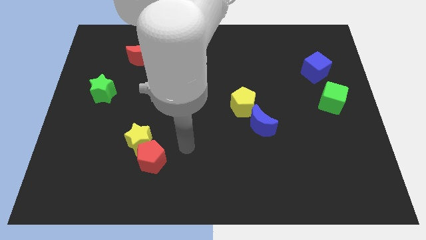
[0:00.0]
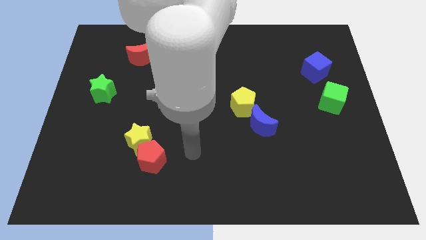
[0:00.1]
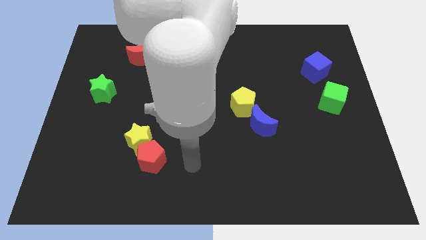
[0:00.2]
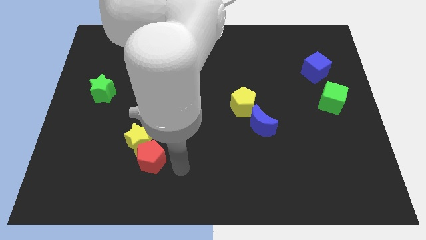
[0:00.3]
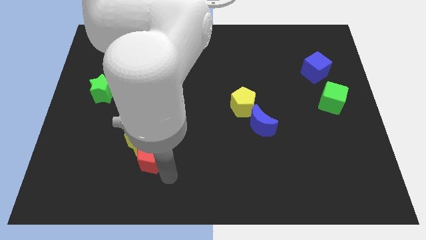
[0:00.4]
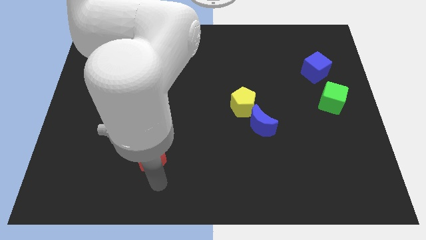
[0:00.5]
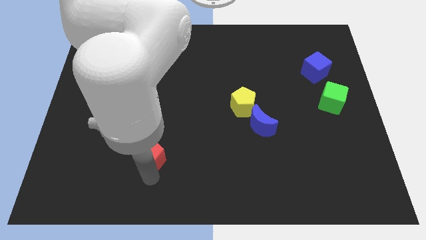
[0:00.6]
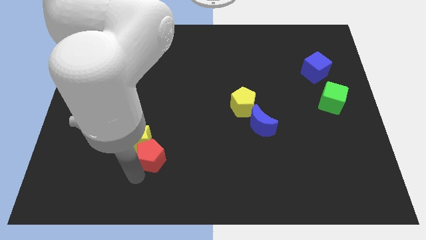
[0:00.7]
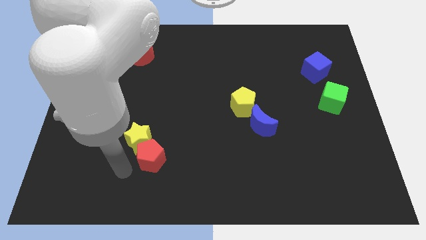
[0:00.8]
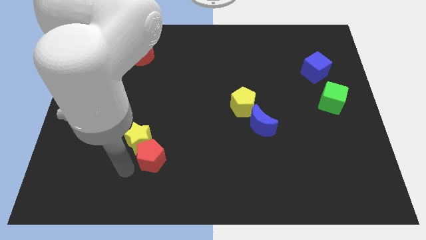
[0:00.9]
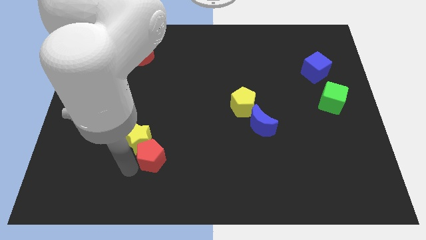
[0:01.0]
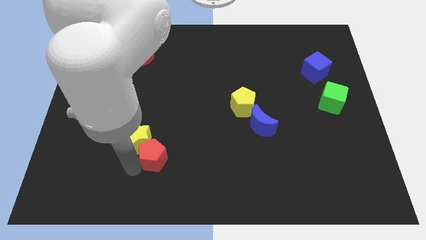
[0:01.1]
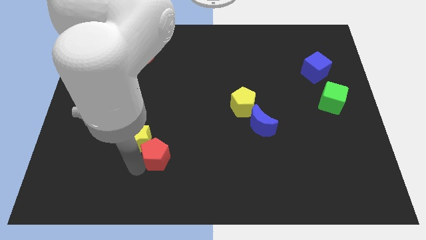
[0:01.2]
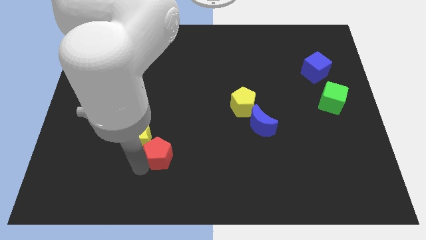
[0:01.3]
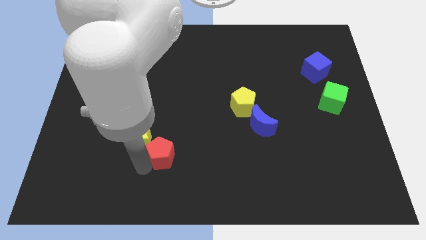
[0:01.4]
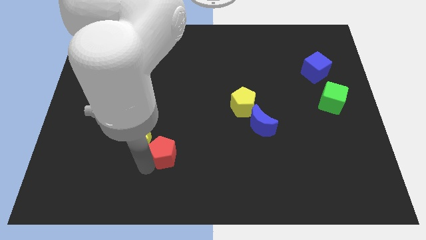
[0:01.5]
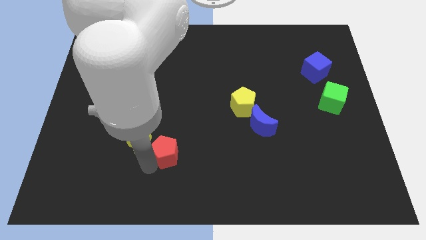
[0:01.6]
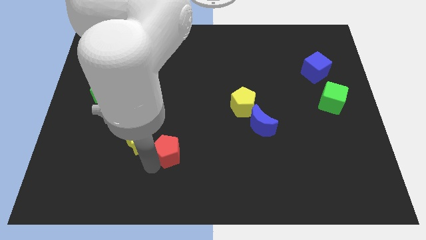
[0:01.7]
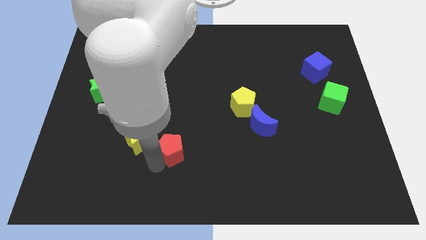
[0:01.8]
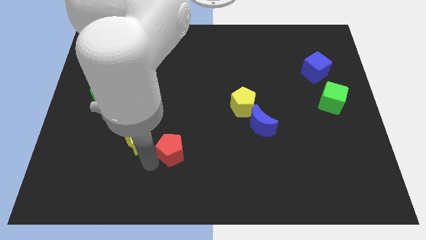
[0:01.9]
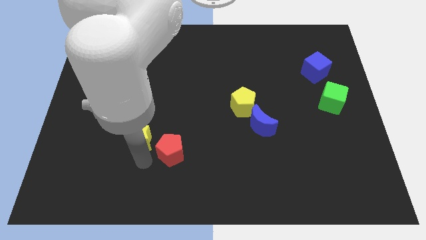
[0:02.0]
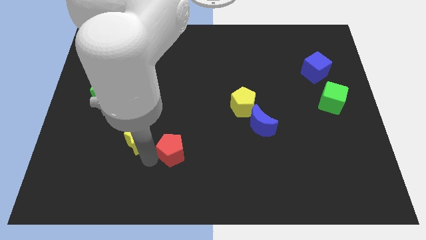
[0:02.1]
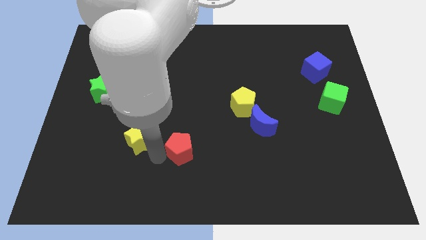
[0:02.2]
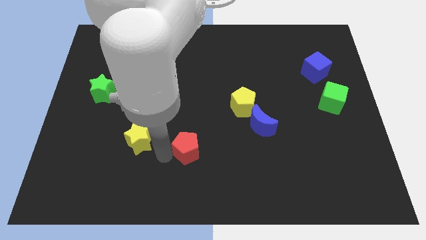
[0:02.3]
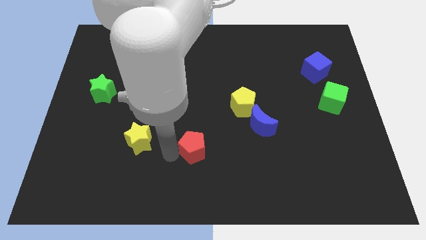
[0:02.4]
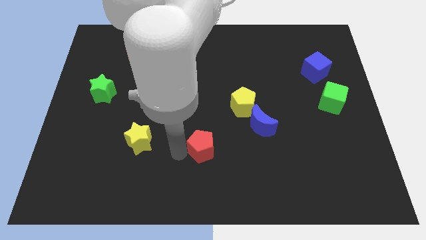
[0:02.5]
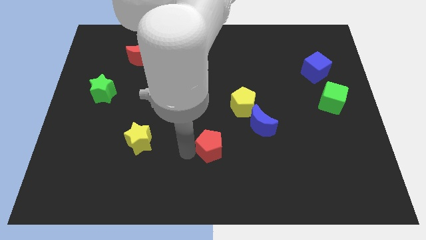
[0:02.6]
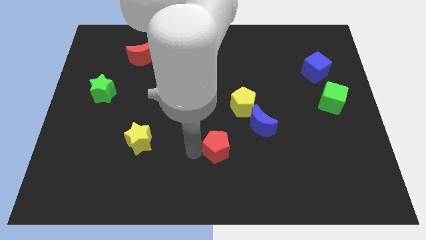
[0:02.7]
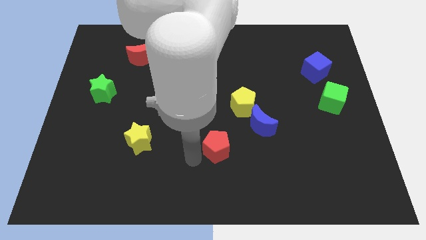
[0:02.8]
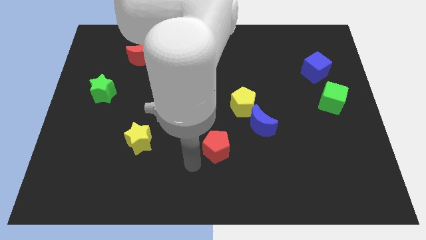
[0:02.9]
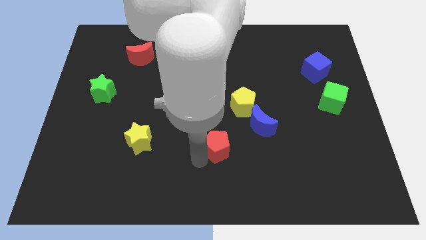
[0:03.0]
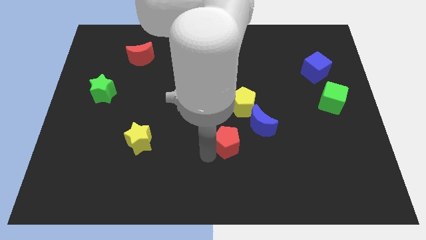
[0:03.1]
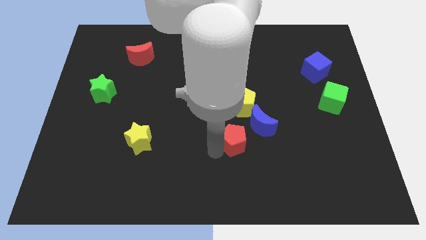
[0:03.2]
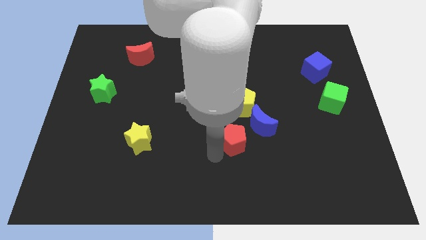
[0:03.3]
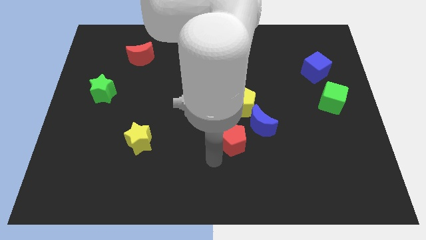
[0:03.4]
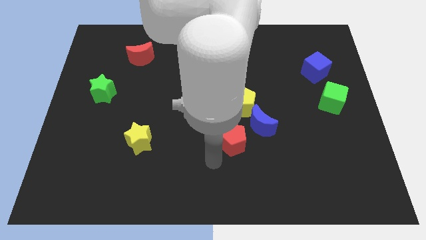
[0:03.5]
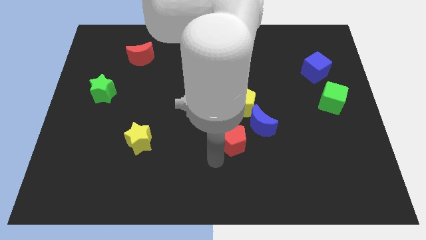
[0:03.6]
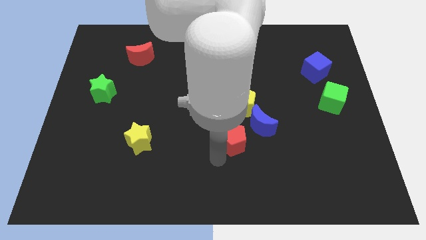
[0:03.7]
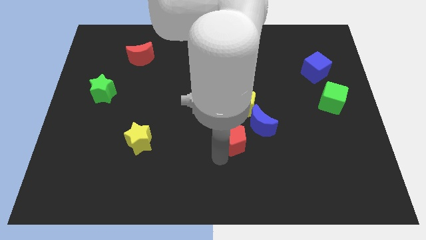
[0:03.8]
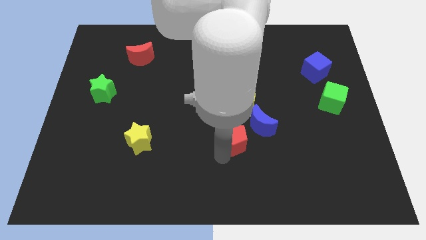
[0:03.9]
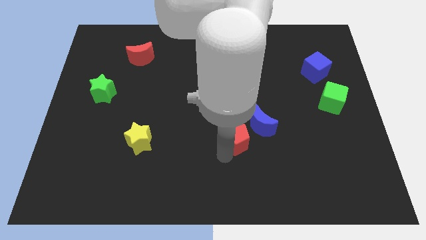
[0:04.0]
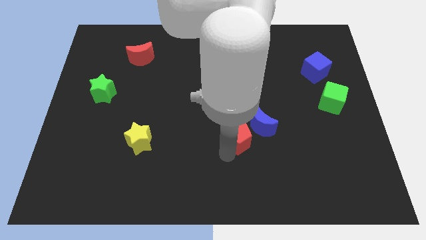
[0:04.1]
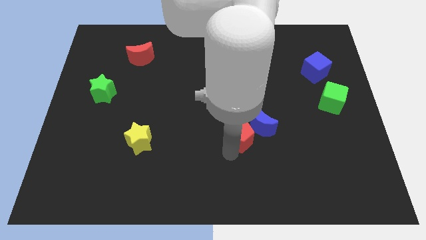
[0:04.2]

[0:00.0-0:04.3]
push the red pentagon to the blue moon

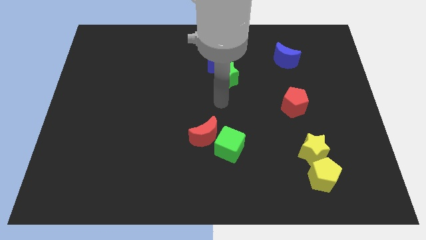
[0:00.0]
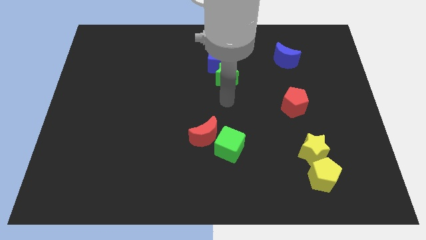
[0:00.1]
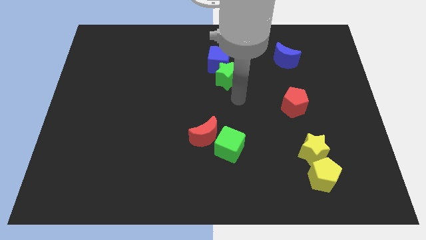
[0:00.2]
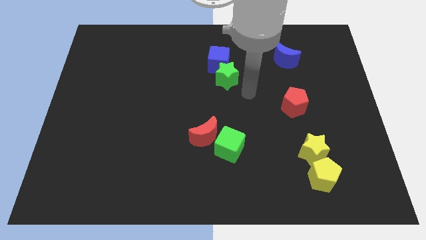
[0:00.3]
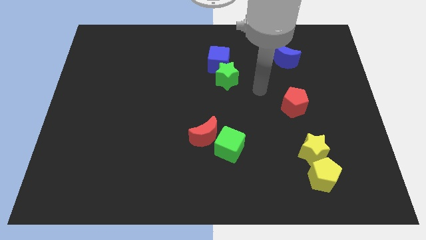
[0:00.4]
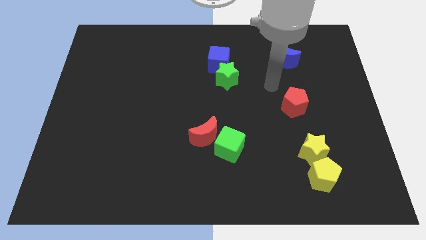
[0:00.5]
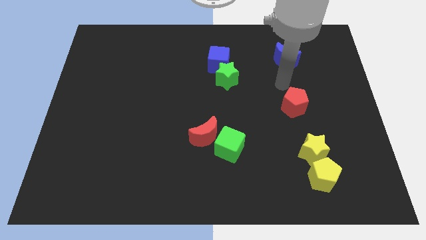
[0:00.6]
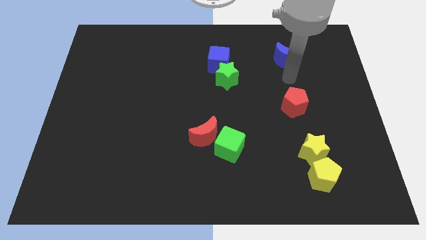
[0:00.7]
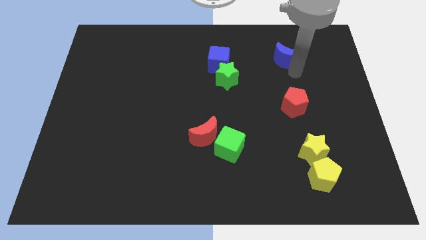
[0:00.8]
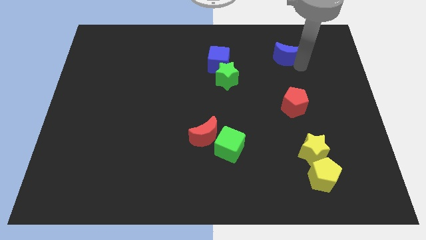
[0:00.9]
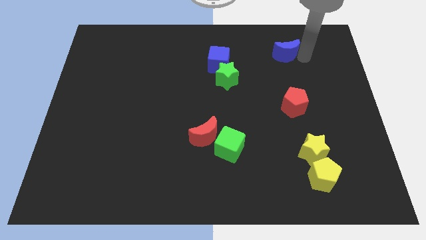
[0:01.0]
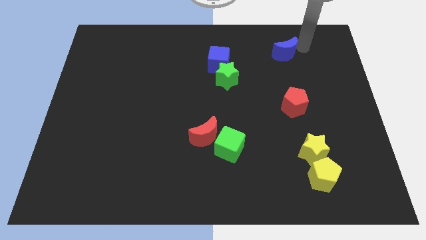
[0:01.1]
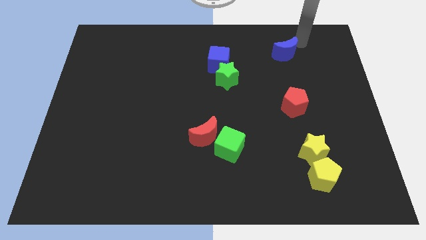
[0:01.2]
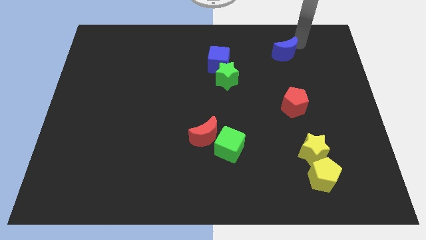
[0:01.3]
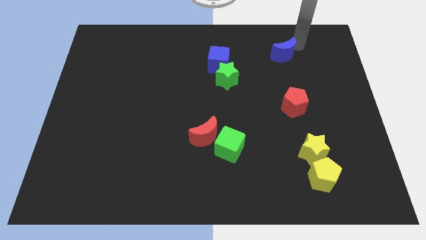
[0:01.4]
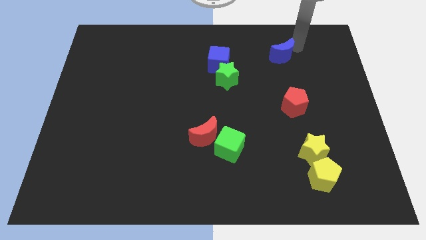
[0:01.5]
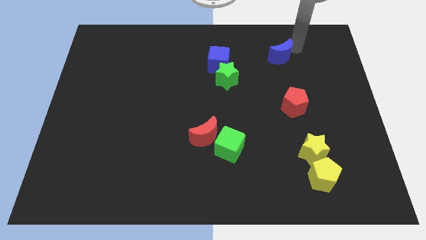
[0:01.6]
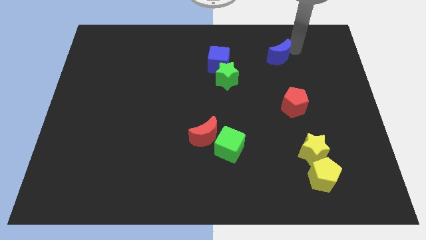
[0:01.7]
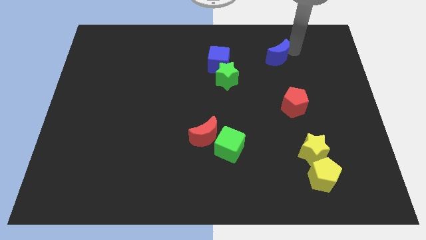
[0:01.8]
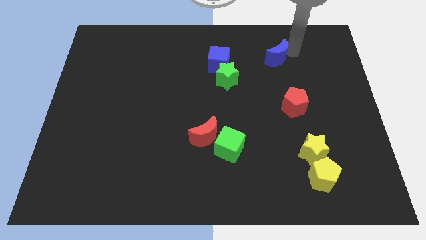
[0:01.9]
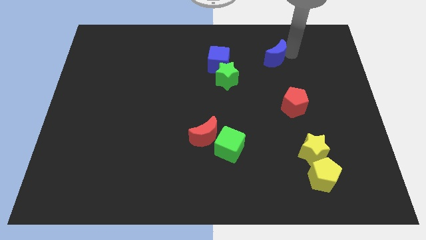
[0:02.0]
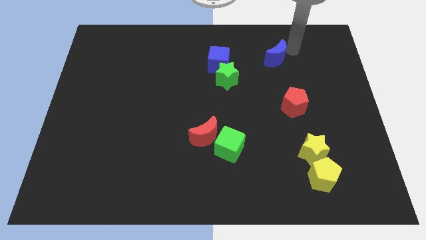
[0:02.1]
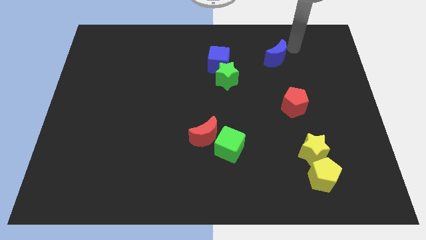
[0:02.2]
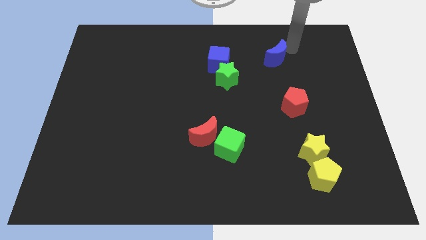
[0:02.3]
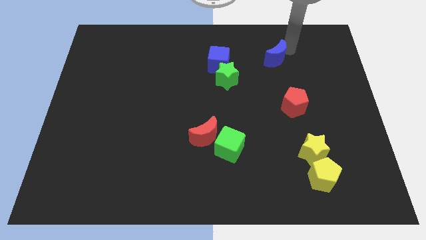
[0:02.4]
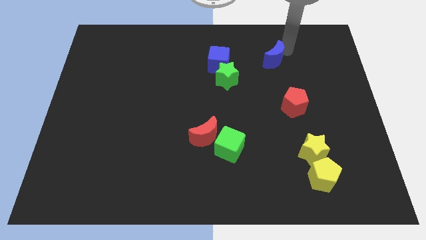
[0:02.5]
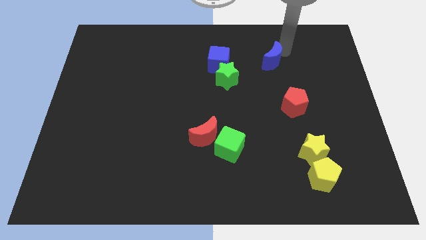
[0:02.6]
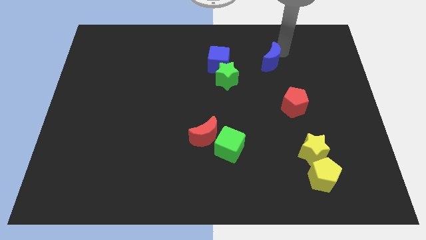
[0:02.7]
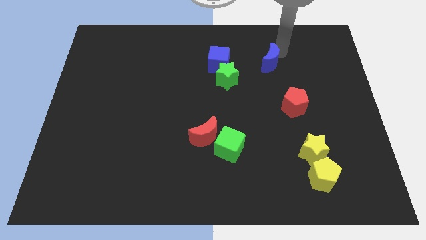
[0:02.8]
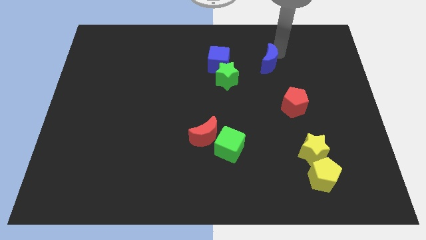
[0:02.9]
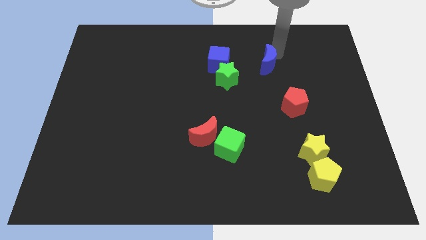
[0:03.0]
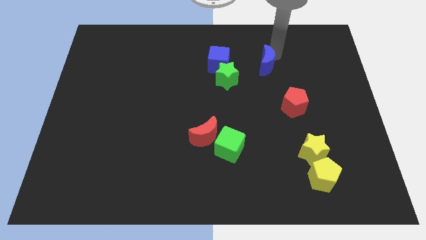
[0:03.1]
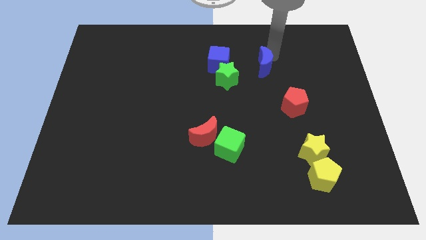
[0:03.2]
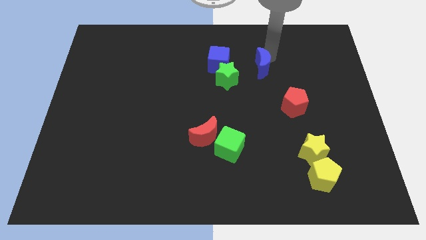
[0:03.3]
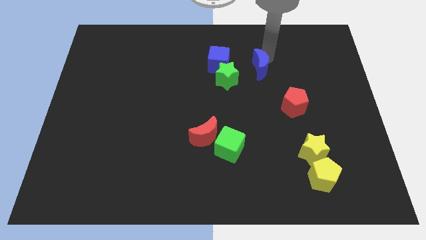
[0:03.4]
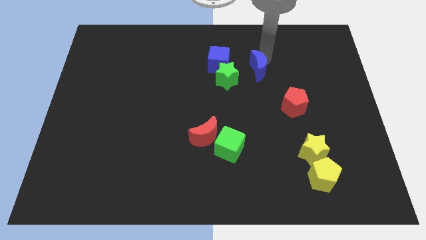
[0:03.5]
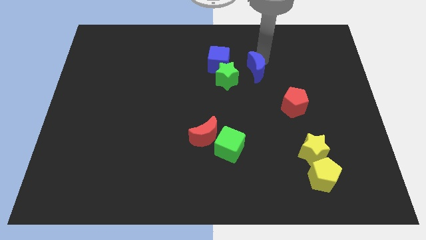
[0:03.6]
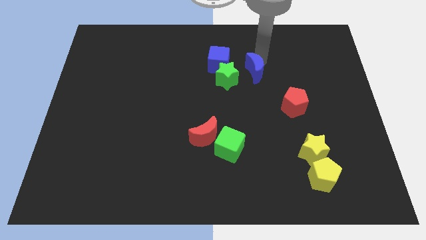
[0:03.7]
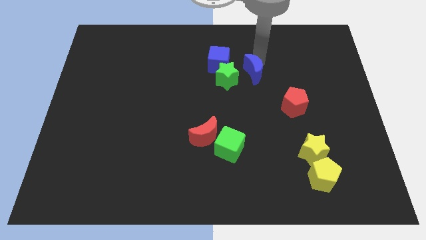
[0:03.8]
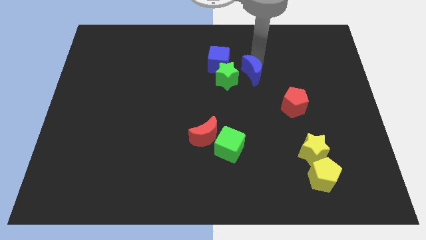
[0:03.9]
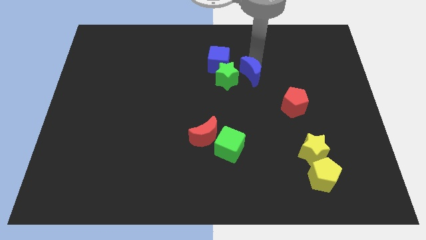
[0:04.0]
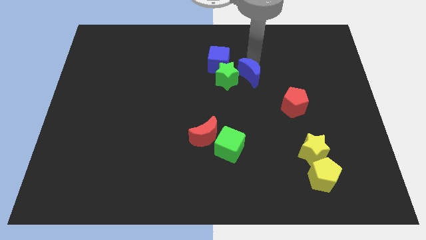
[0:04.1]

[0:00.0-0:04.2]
put the blue moon next to the green star
